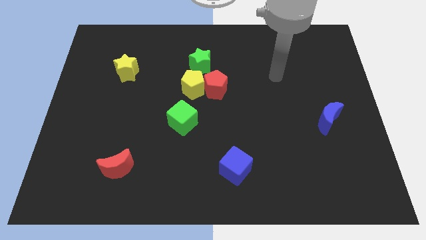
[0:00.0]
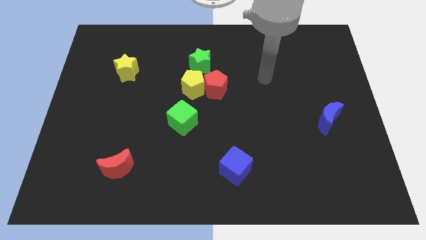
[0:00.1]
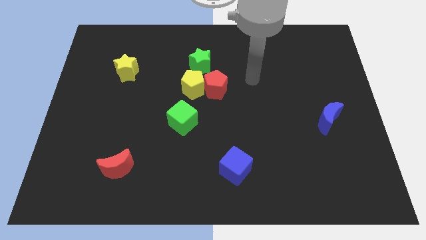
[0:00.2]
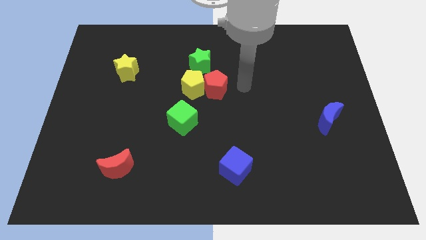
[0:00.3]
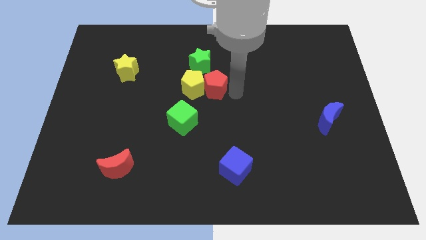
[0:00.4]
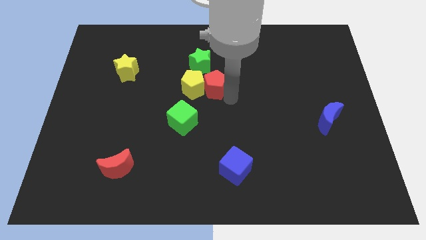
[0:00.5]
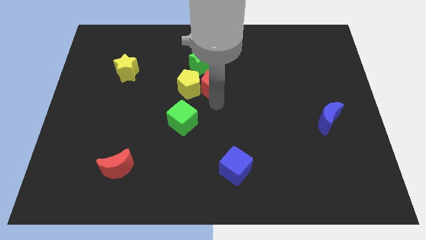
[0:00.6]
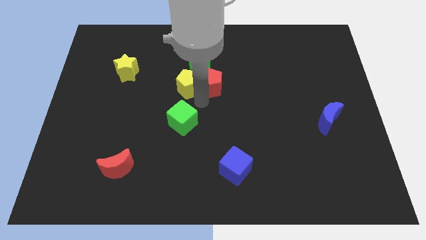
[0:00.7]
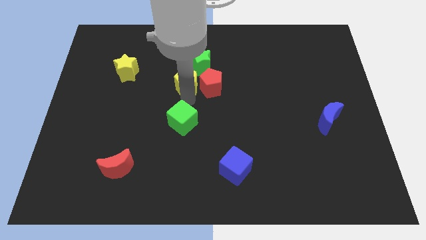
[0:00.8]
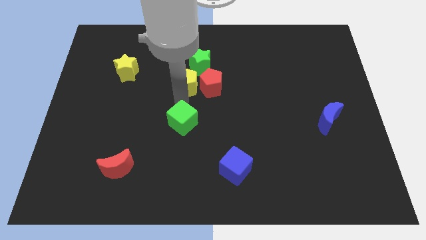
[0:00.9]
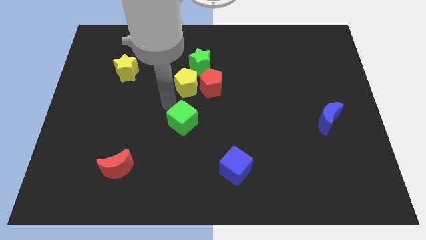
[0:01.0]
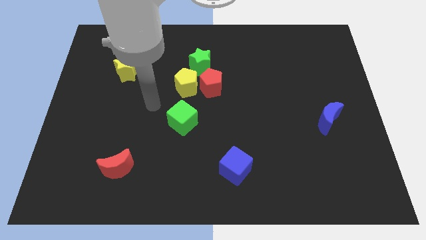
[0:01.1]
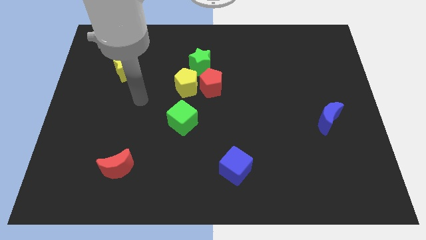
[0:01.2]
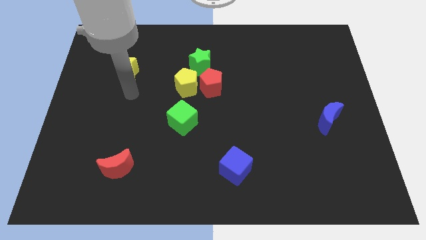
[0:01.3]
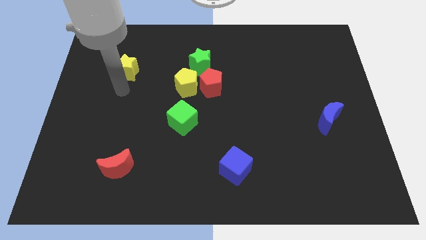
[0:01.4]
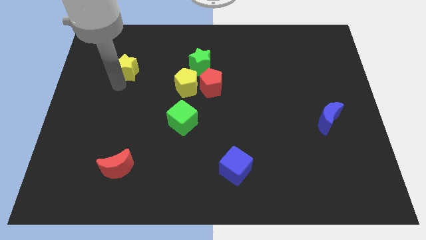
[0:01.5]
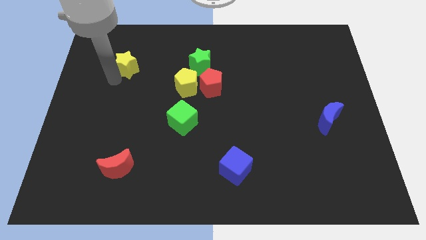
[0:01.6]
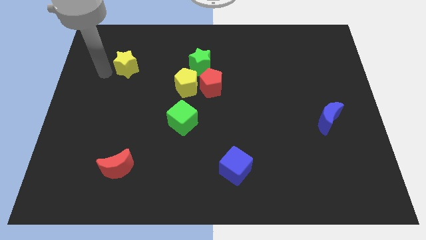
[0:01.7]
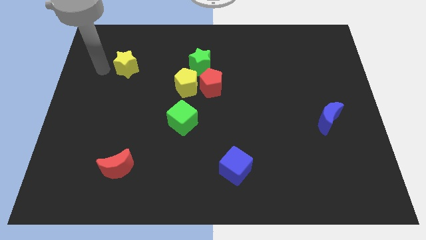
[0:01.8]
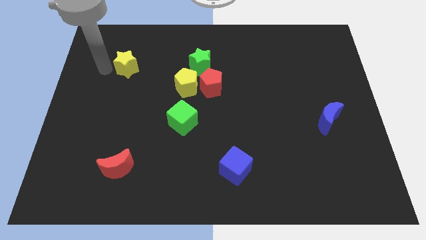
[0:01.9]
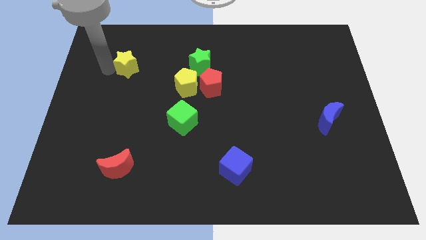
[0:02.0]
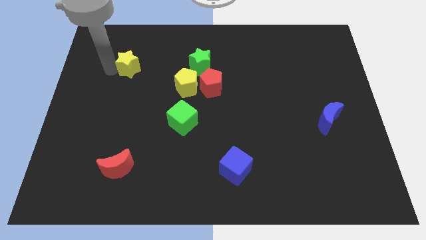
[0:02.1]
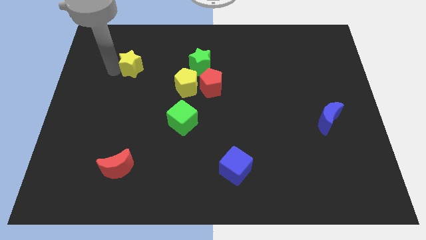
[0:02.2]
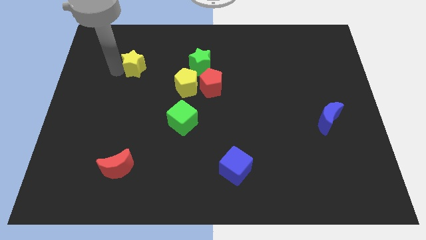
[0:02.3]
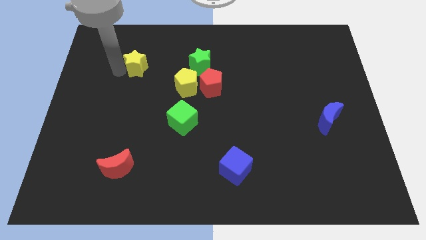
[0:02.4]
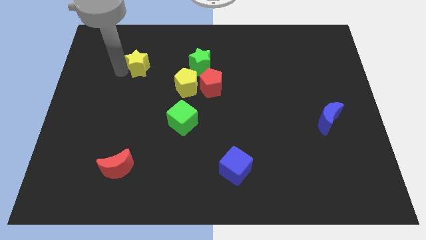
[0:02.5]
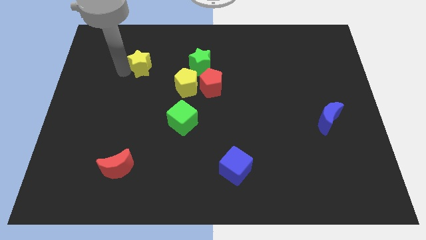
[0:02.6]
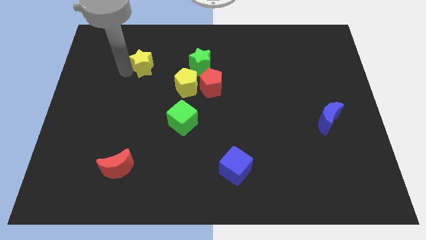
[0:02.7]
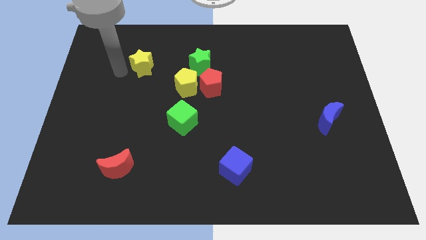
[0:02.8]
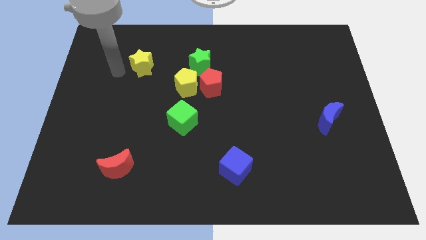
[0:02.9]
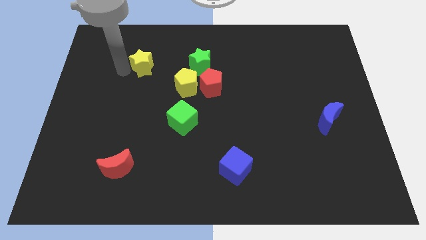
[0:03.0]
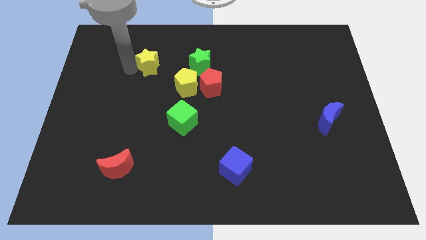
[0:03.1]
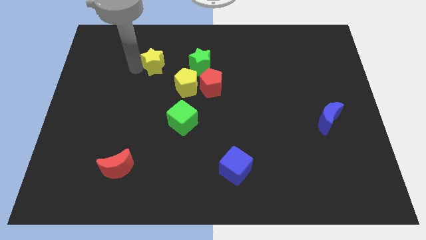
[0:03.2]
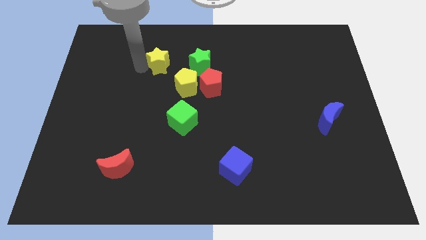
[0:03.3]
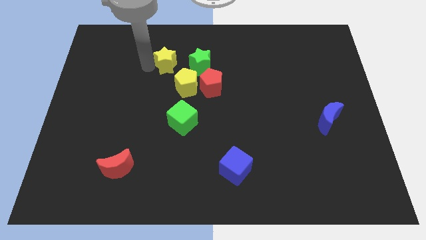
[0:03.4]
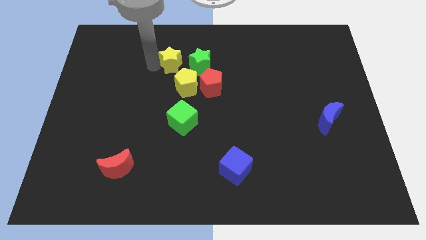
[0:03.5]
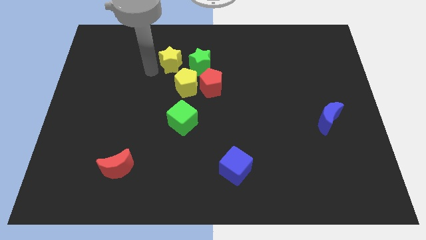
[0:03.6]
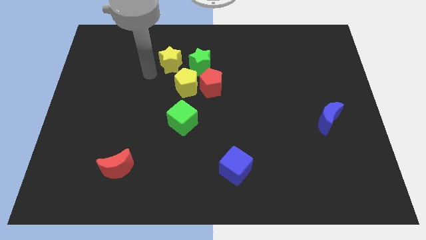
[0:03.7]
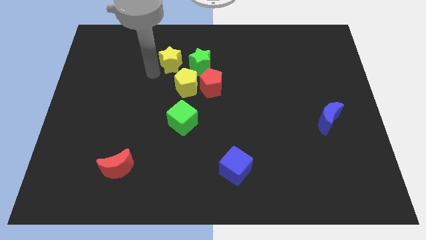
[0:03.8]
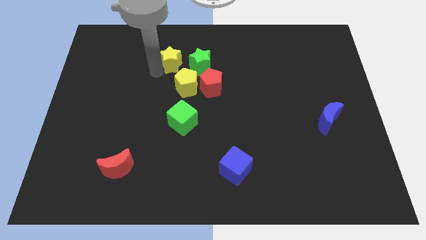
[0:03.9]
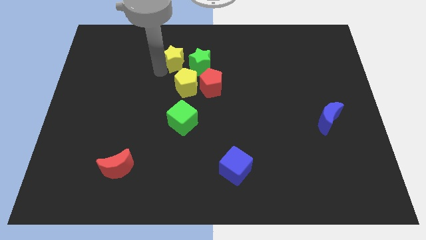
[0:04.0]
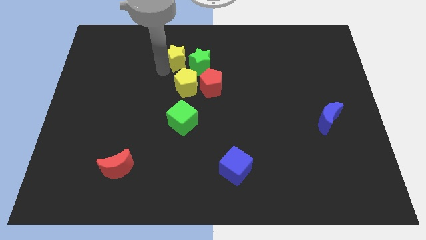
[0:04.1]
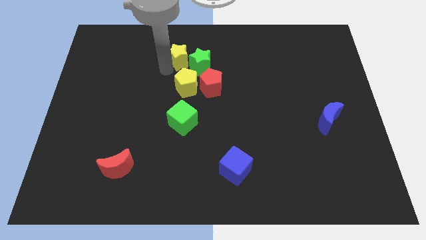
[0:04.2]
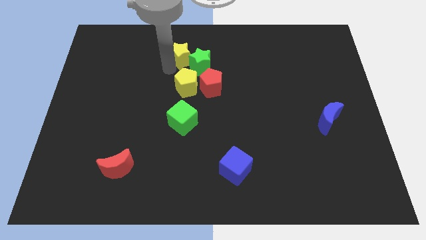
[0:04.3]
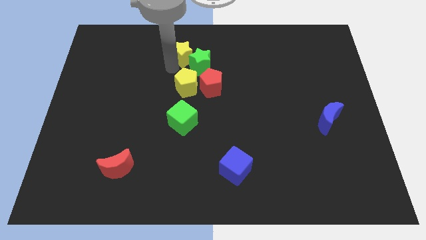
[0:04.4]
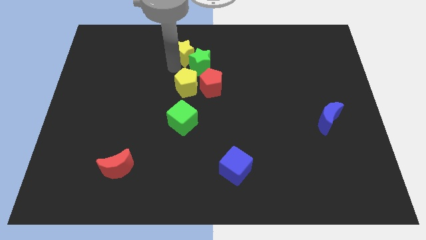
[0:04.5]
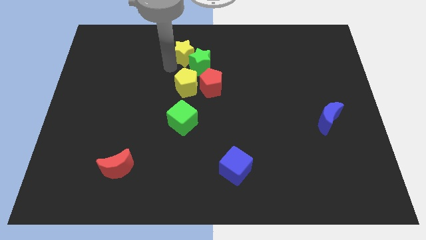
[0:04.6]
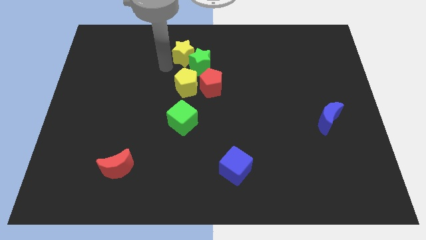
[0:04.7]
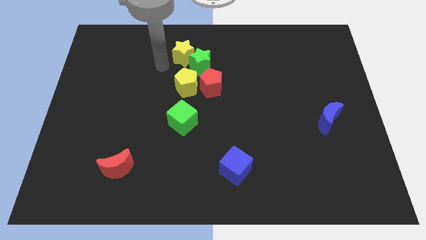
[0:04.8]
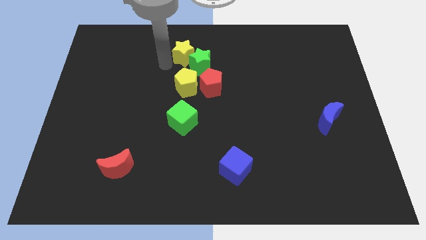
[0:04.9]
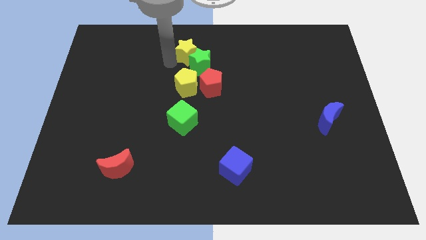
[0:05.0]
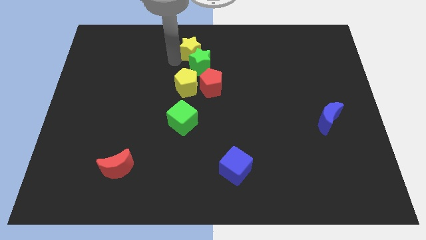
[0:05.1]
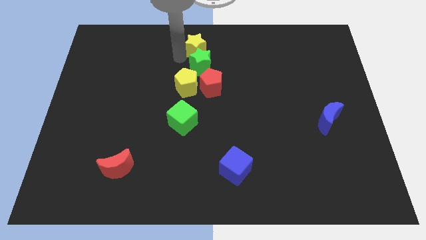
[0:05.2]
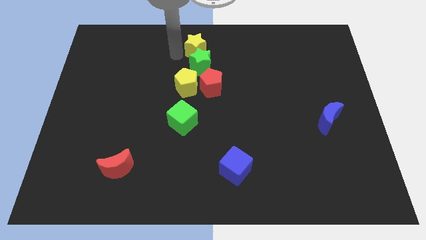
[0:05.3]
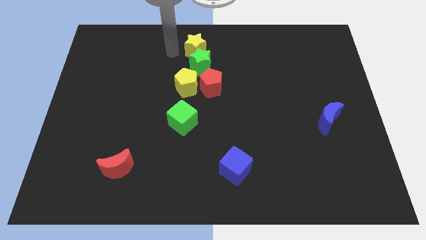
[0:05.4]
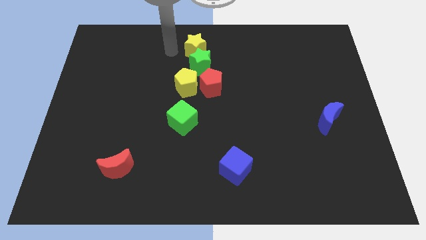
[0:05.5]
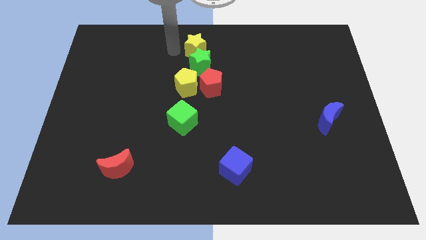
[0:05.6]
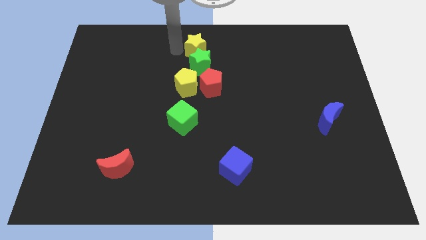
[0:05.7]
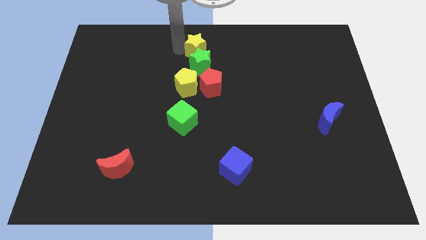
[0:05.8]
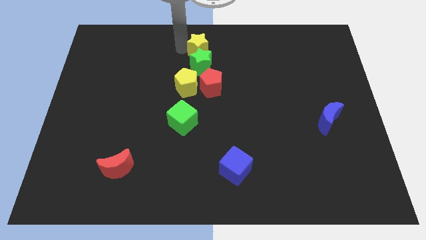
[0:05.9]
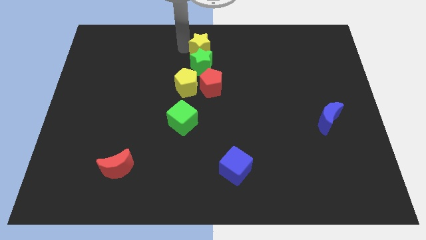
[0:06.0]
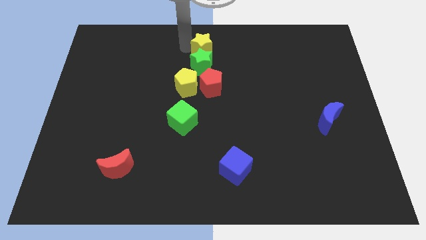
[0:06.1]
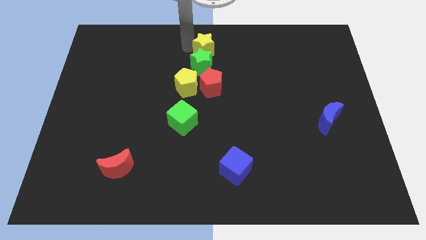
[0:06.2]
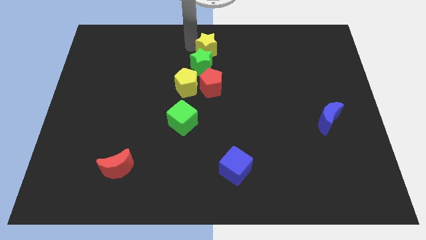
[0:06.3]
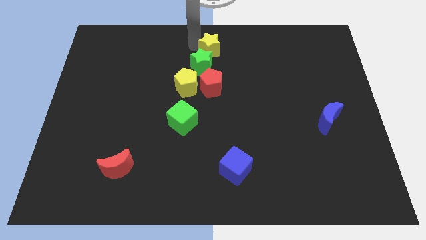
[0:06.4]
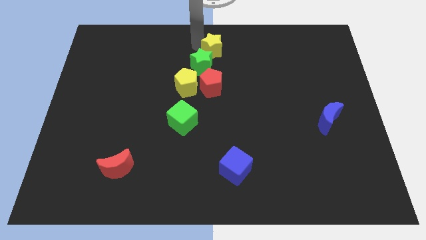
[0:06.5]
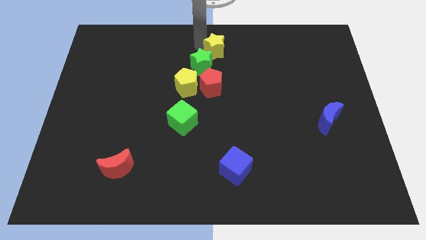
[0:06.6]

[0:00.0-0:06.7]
move the yellow star to the right

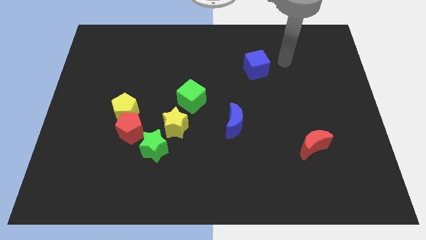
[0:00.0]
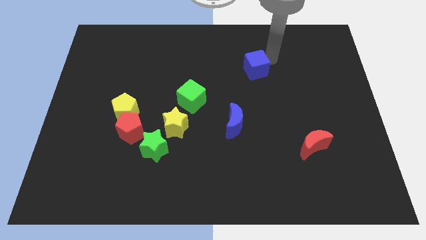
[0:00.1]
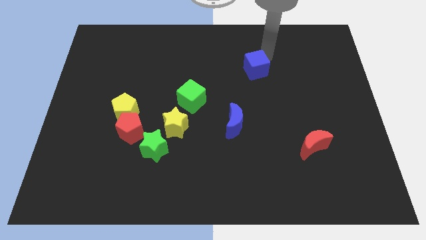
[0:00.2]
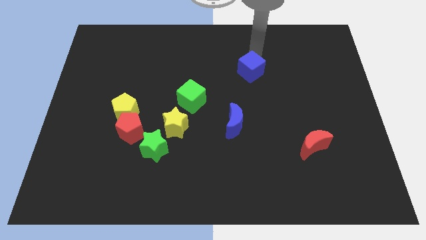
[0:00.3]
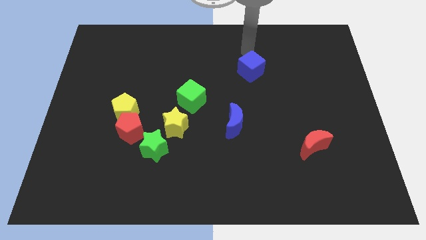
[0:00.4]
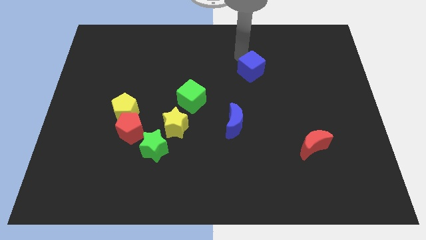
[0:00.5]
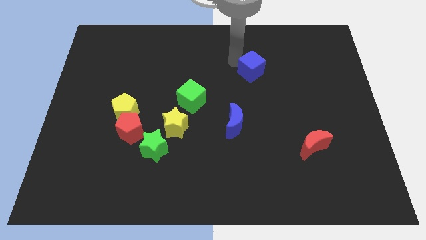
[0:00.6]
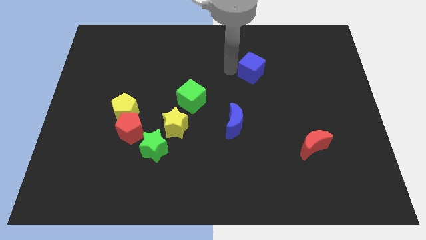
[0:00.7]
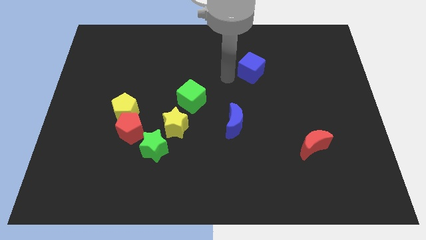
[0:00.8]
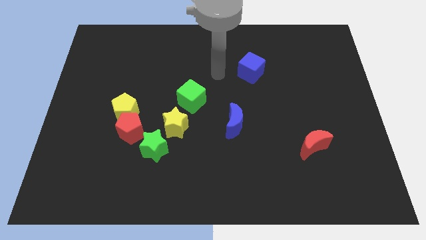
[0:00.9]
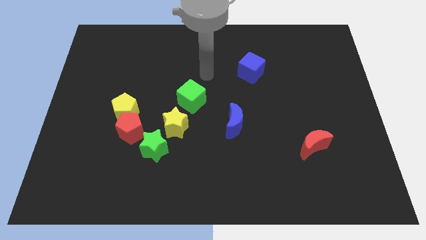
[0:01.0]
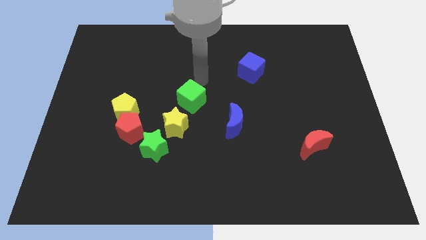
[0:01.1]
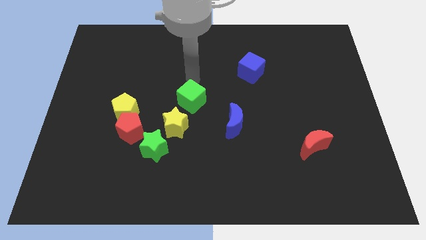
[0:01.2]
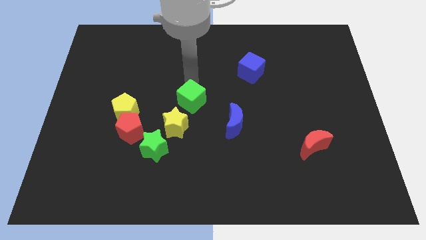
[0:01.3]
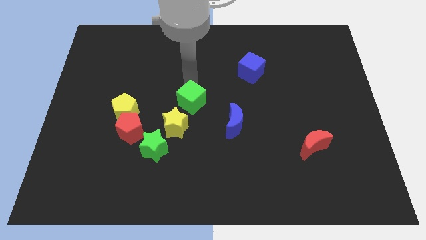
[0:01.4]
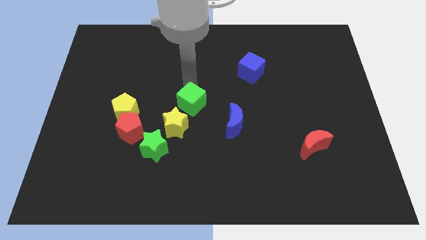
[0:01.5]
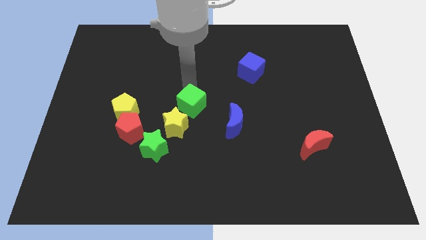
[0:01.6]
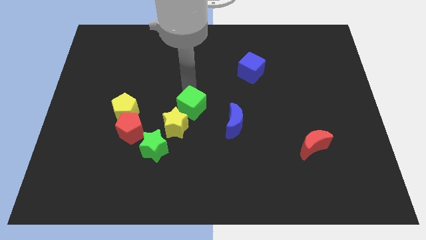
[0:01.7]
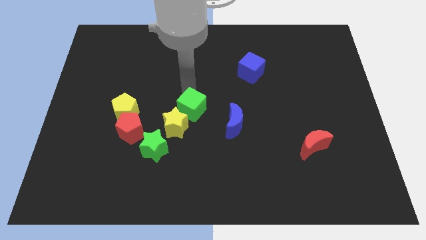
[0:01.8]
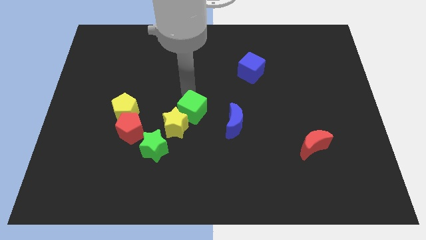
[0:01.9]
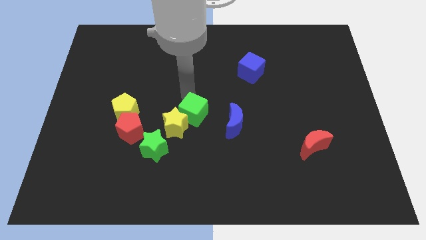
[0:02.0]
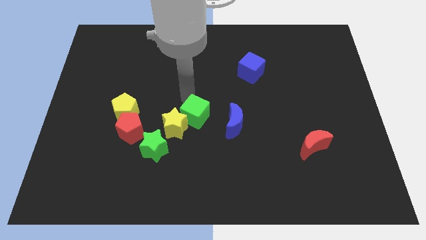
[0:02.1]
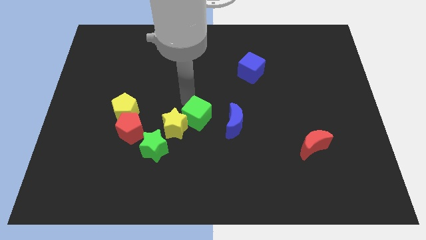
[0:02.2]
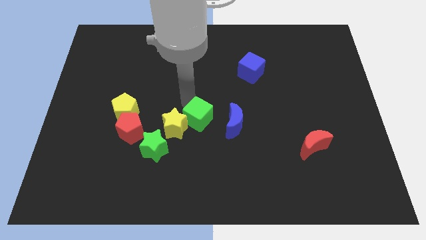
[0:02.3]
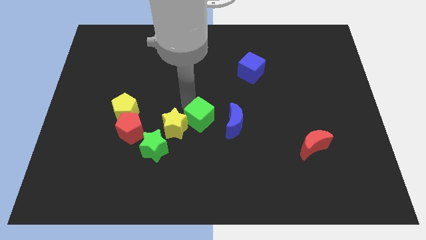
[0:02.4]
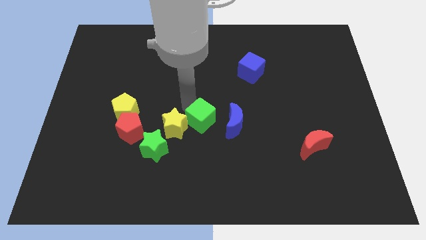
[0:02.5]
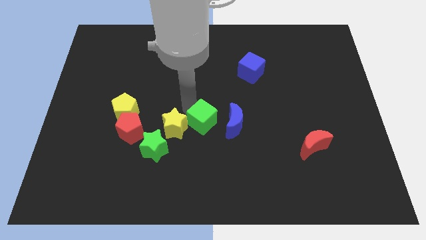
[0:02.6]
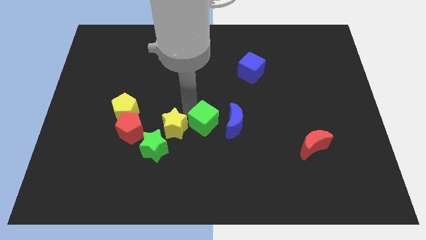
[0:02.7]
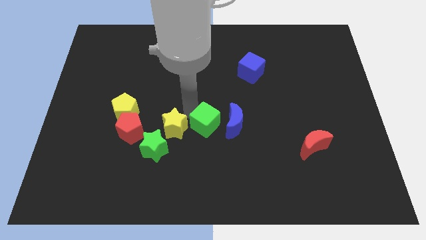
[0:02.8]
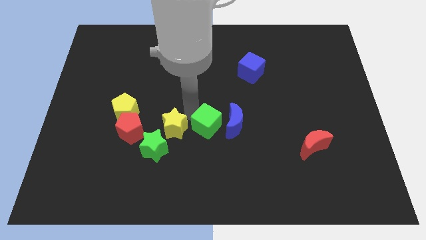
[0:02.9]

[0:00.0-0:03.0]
move the green cube slightly downwards
